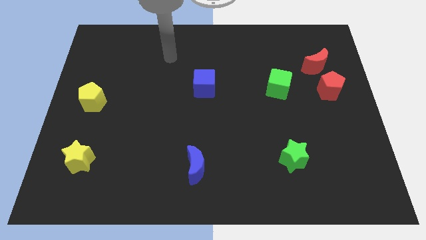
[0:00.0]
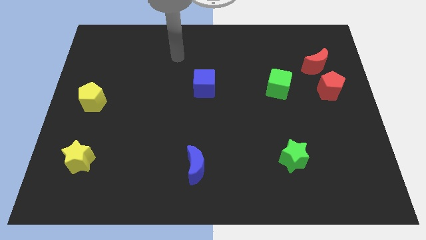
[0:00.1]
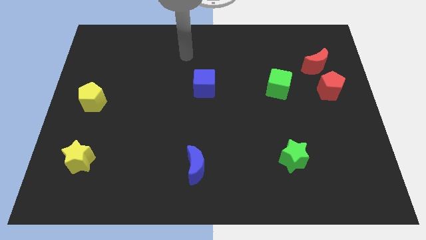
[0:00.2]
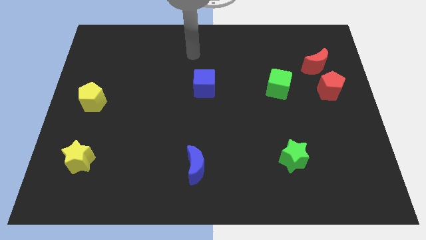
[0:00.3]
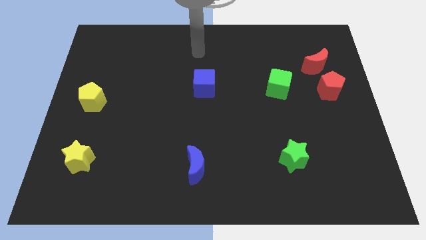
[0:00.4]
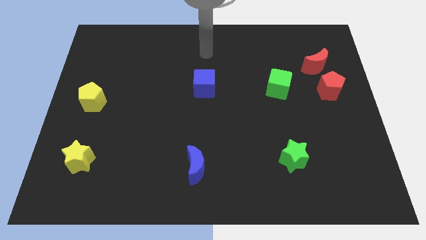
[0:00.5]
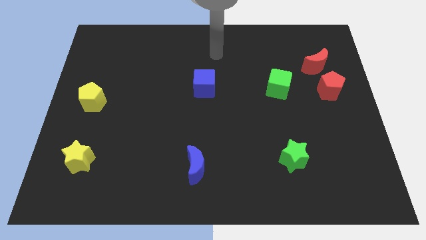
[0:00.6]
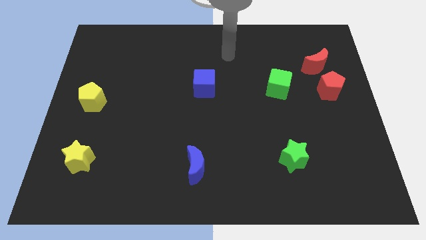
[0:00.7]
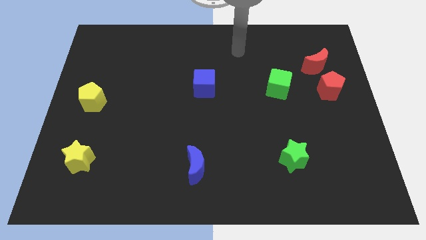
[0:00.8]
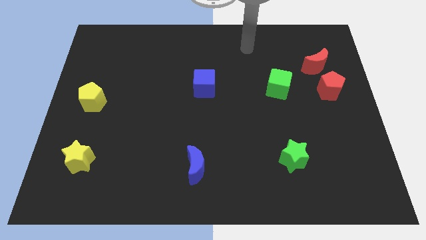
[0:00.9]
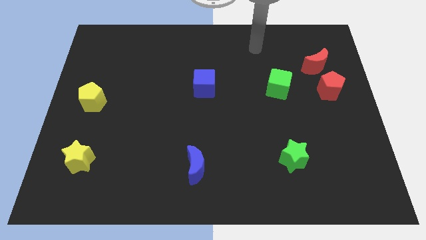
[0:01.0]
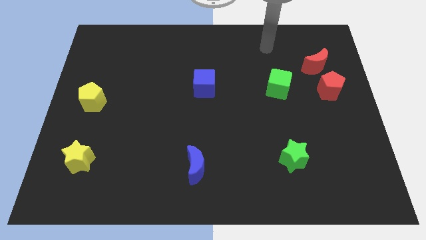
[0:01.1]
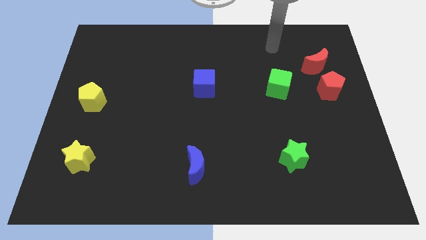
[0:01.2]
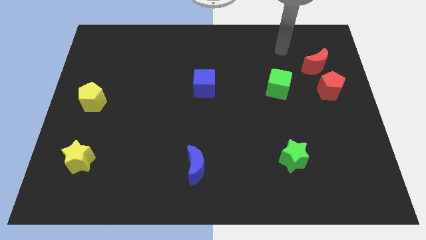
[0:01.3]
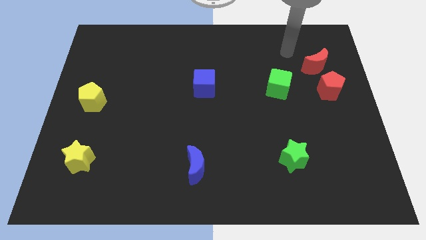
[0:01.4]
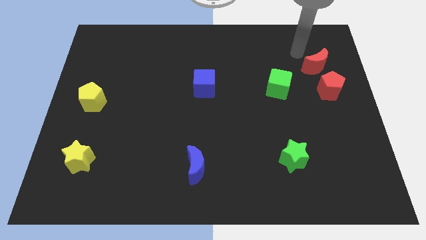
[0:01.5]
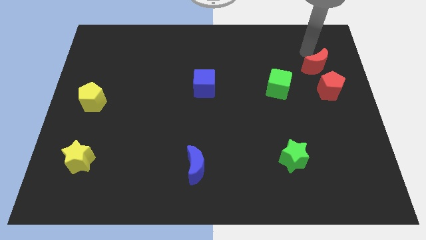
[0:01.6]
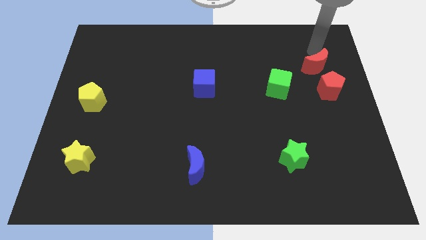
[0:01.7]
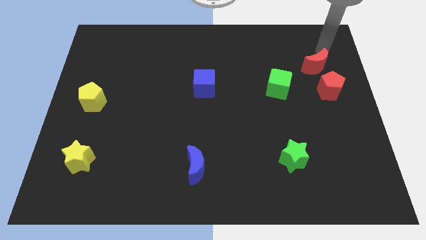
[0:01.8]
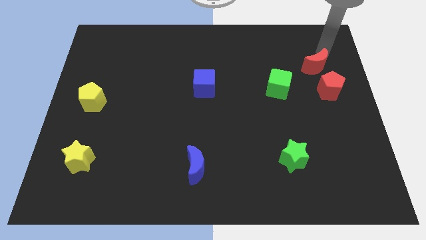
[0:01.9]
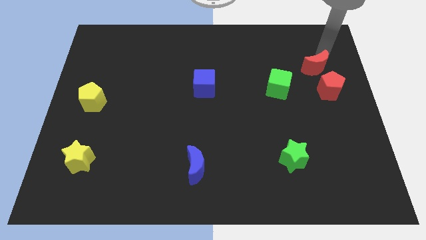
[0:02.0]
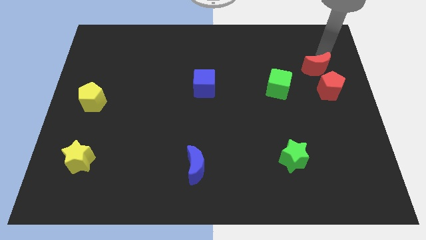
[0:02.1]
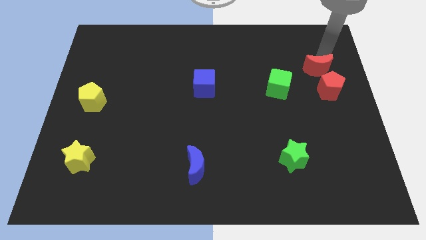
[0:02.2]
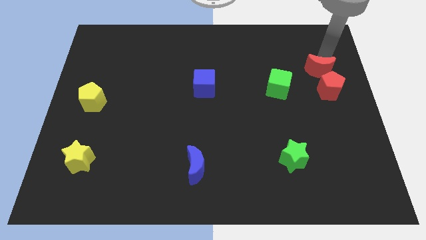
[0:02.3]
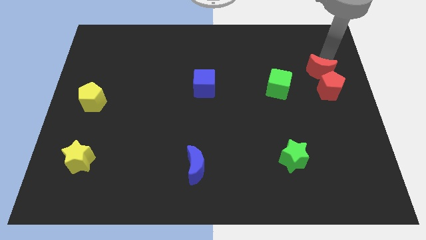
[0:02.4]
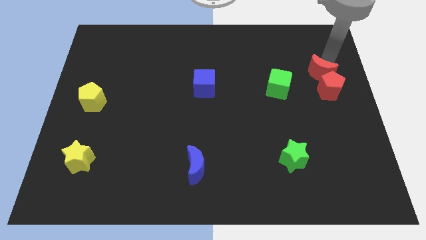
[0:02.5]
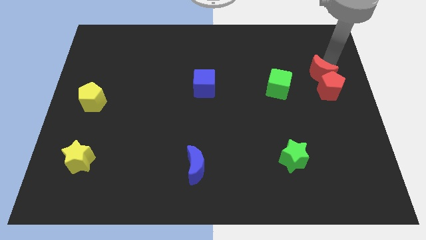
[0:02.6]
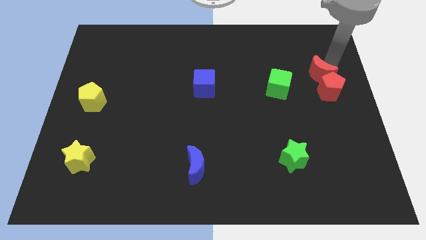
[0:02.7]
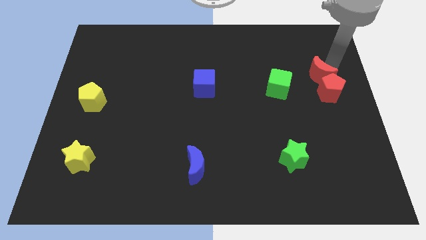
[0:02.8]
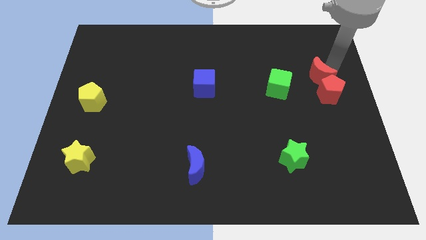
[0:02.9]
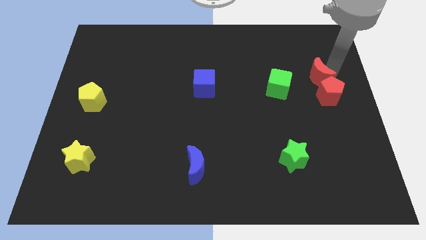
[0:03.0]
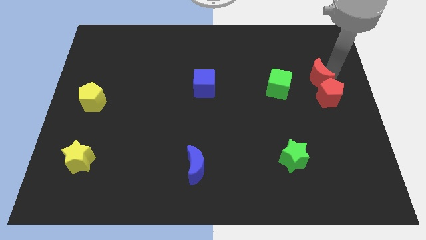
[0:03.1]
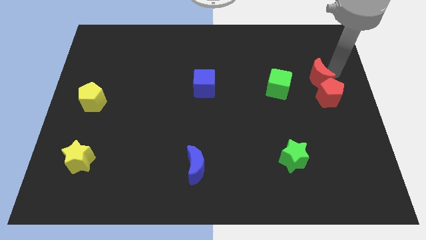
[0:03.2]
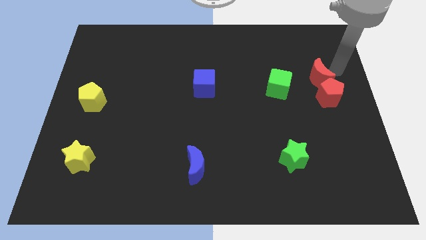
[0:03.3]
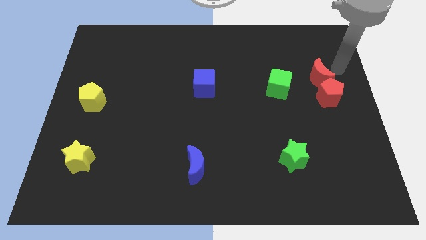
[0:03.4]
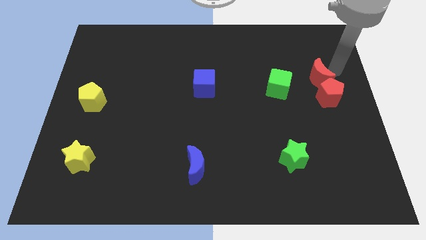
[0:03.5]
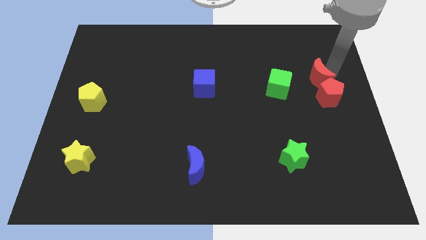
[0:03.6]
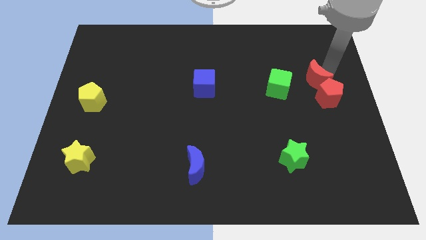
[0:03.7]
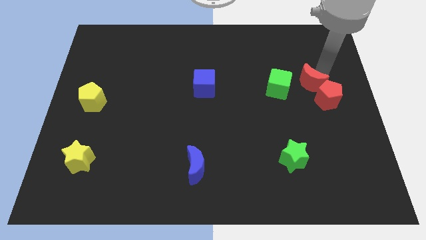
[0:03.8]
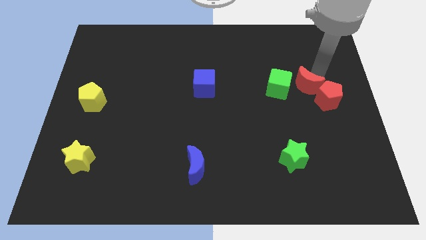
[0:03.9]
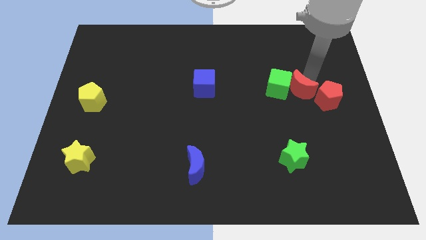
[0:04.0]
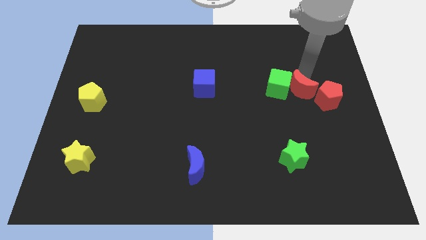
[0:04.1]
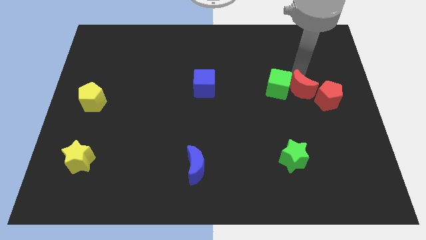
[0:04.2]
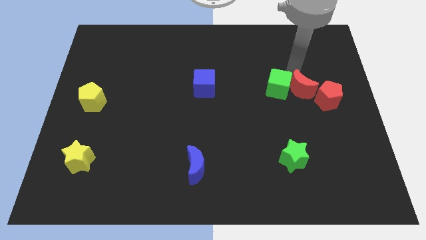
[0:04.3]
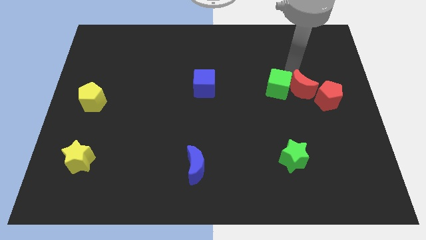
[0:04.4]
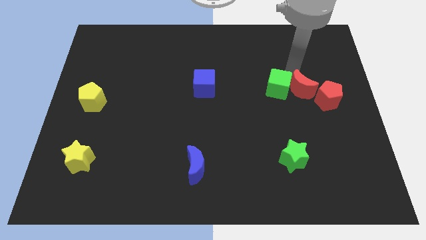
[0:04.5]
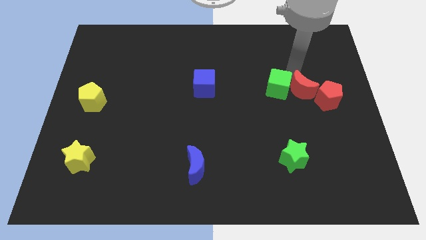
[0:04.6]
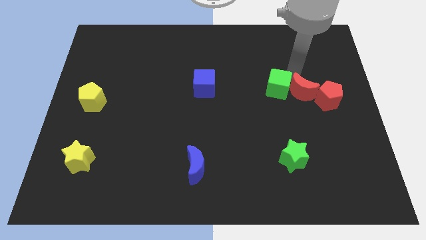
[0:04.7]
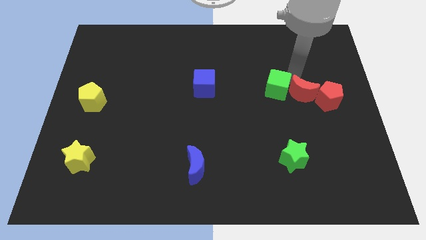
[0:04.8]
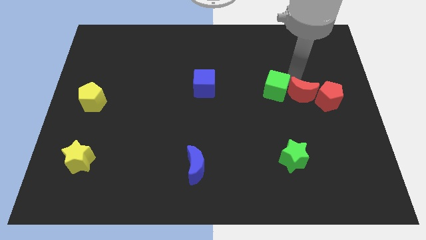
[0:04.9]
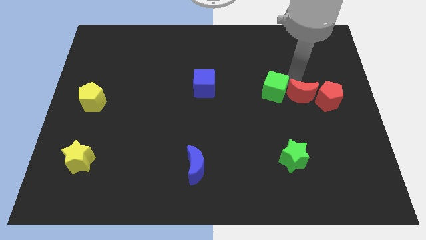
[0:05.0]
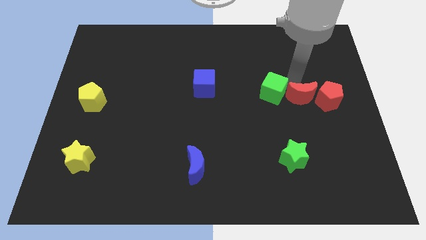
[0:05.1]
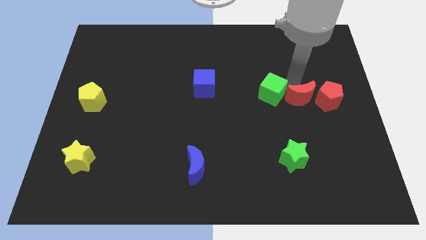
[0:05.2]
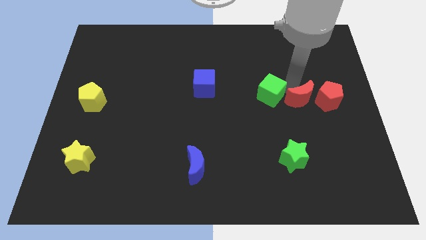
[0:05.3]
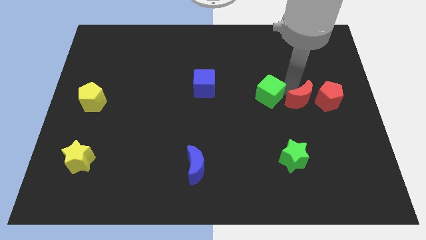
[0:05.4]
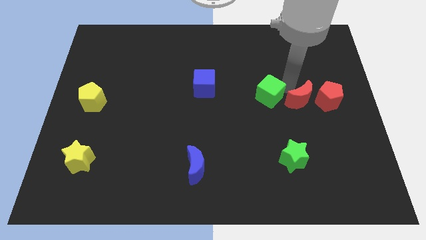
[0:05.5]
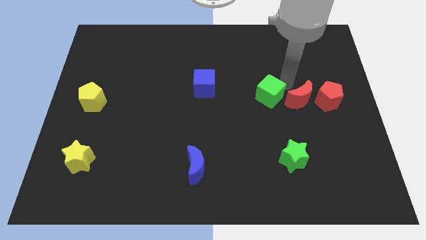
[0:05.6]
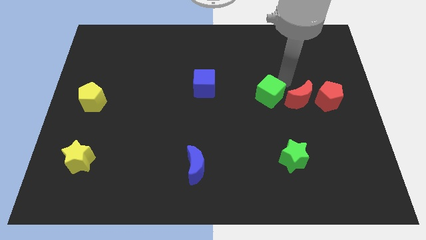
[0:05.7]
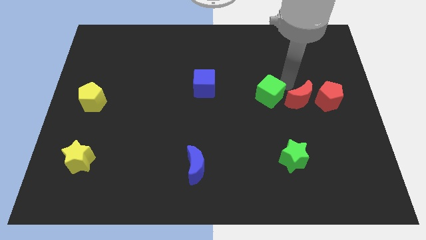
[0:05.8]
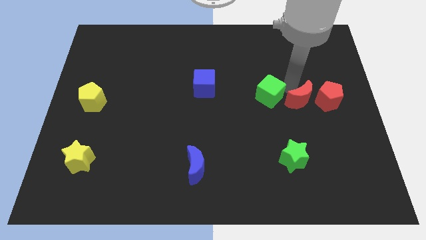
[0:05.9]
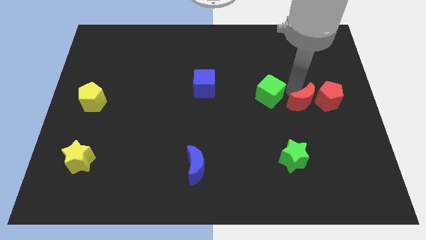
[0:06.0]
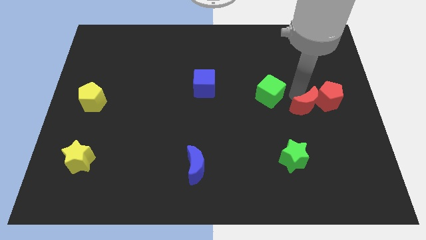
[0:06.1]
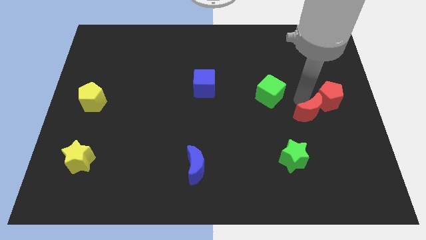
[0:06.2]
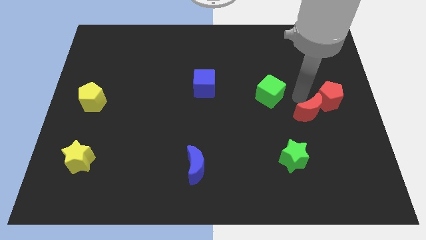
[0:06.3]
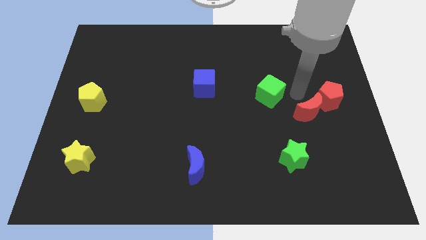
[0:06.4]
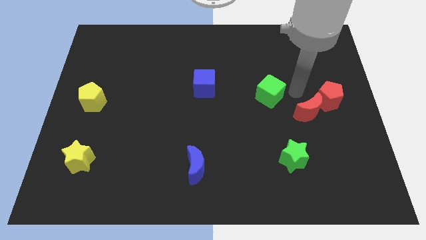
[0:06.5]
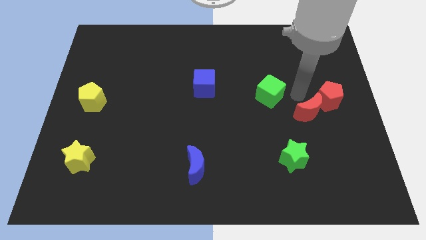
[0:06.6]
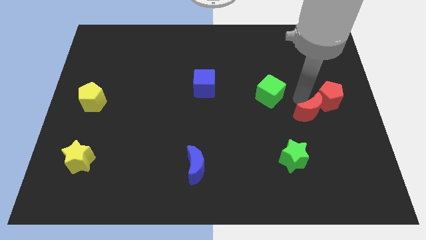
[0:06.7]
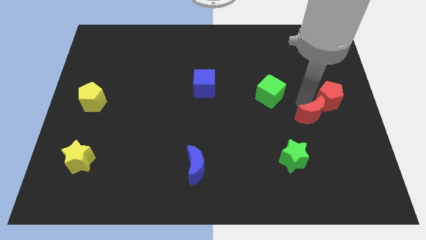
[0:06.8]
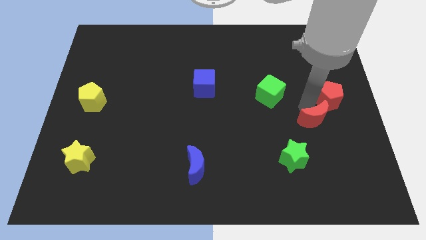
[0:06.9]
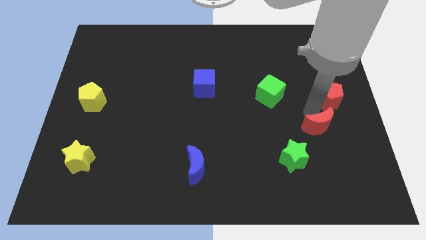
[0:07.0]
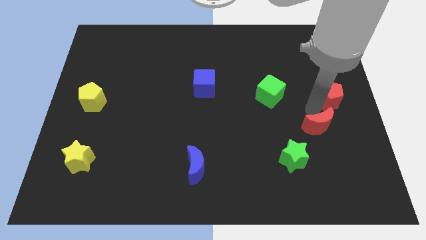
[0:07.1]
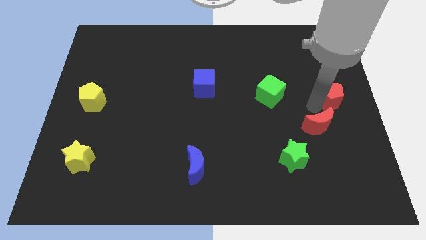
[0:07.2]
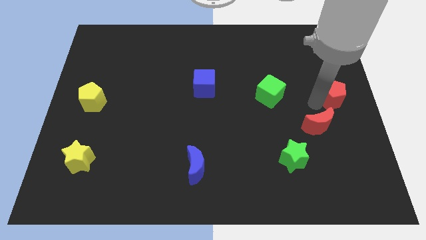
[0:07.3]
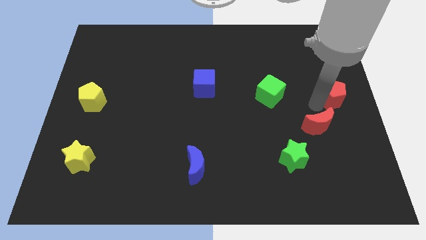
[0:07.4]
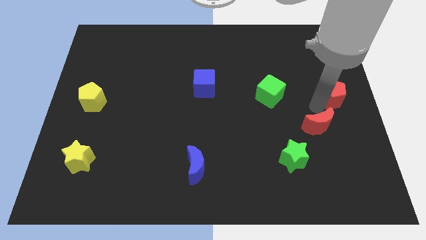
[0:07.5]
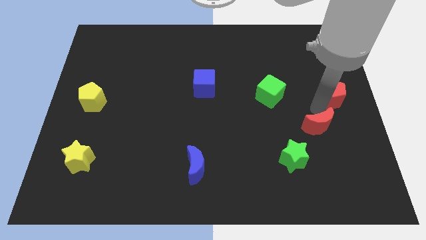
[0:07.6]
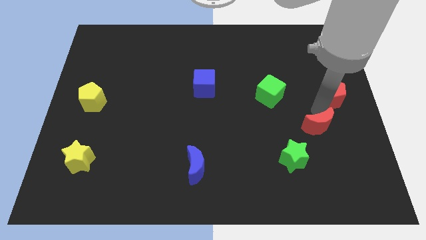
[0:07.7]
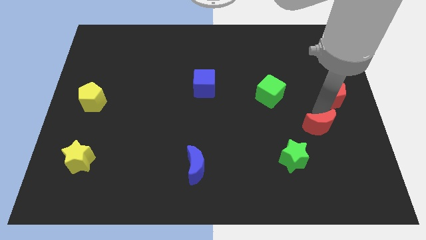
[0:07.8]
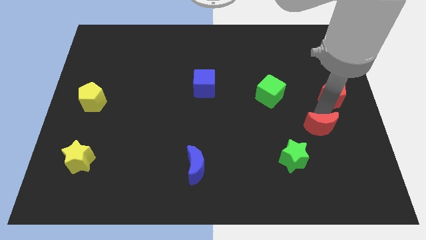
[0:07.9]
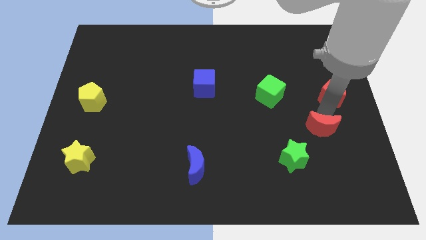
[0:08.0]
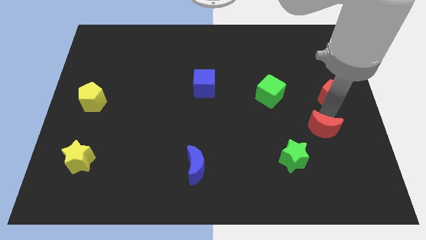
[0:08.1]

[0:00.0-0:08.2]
move the red moon down
